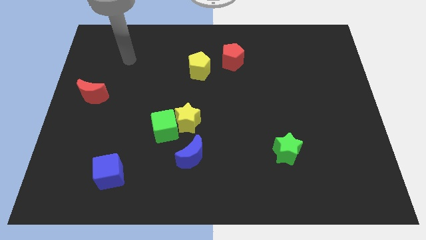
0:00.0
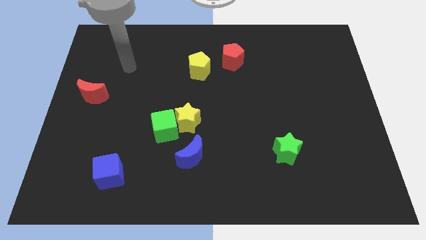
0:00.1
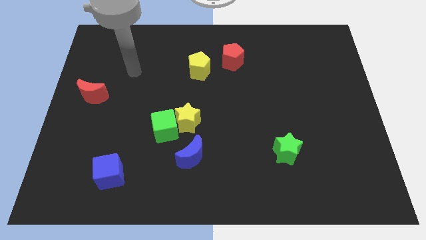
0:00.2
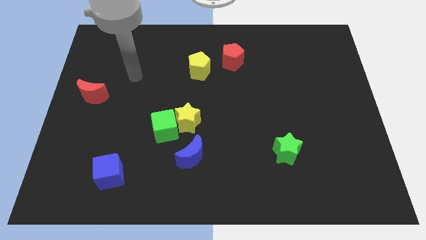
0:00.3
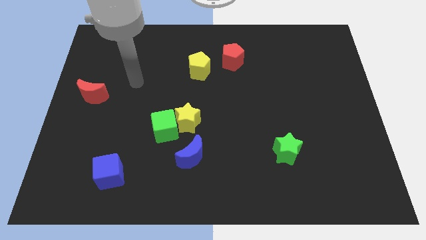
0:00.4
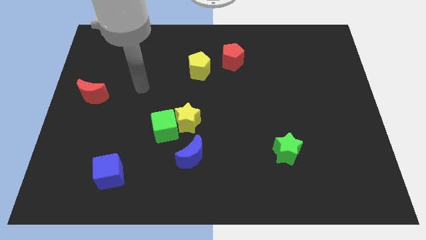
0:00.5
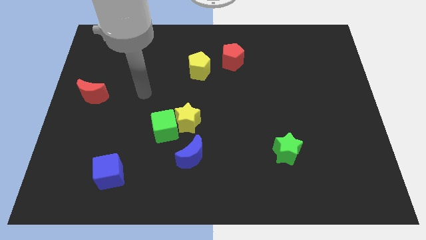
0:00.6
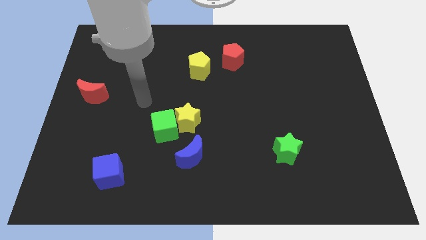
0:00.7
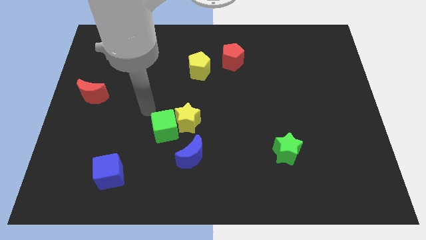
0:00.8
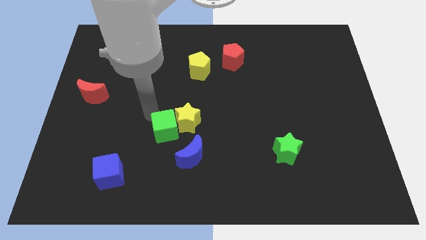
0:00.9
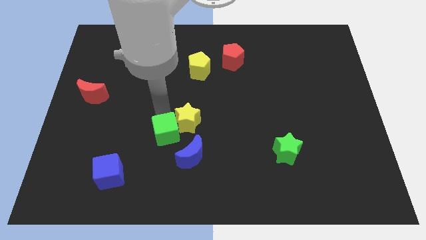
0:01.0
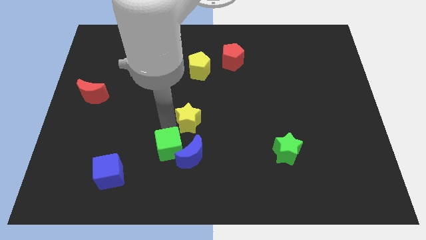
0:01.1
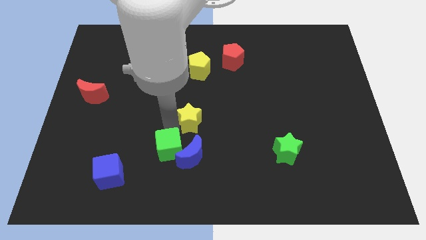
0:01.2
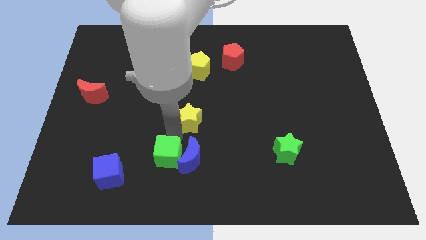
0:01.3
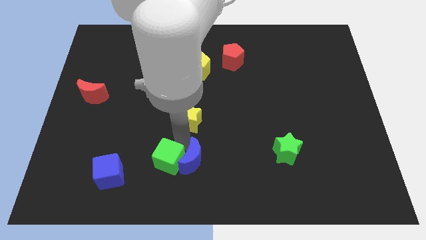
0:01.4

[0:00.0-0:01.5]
pull the yellow star apart from the green cube and blue moon

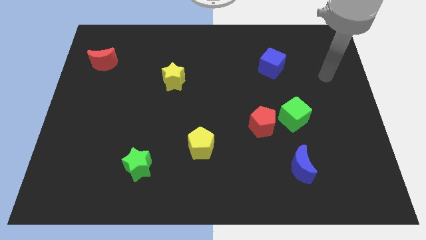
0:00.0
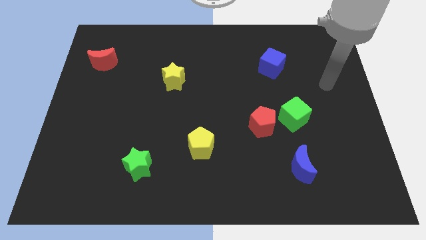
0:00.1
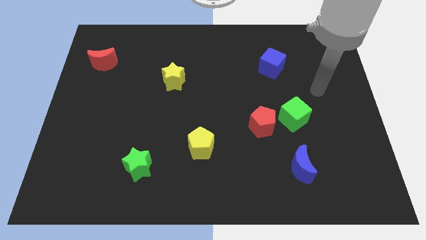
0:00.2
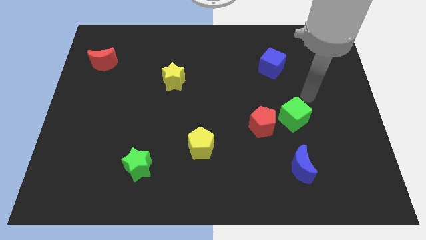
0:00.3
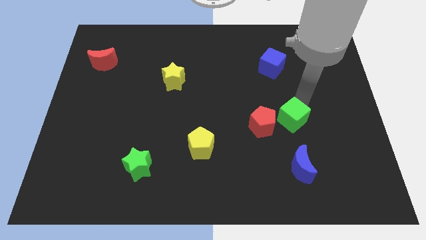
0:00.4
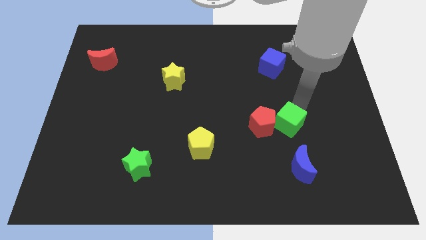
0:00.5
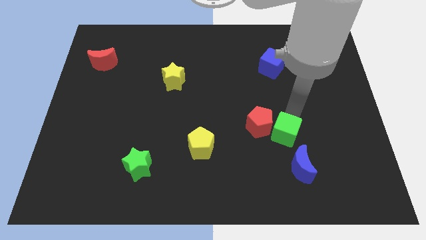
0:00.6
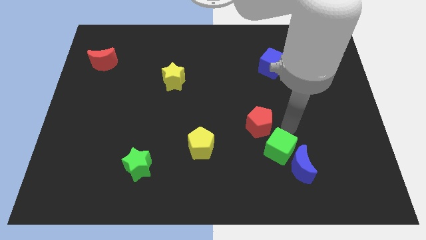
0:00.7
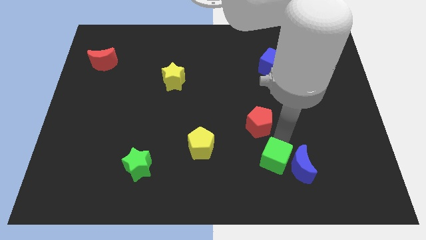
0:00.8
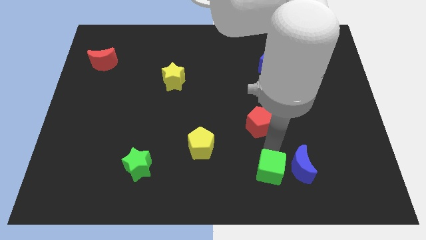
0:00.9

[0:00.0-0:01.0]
separate the red pentagon from the green cube

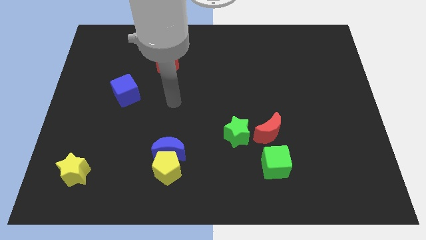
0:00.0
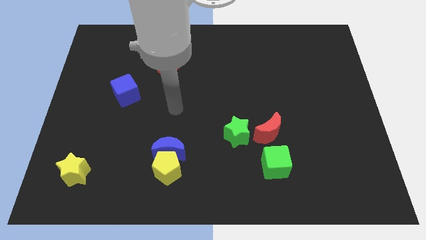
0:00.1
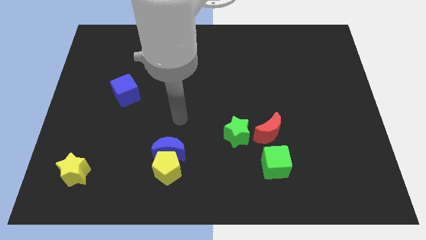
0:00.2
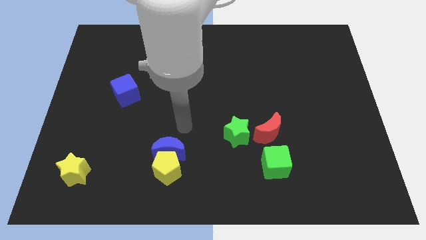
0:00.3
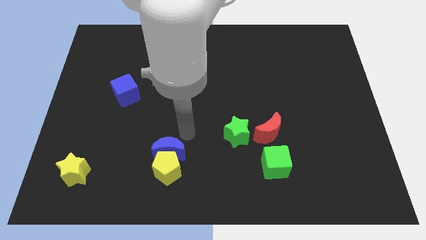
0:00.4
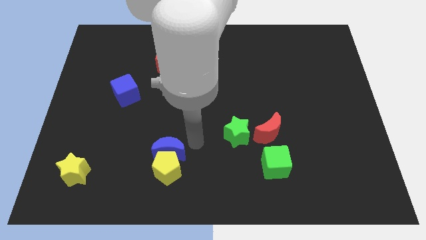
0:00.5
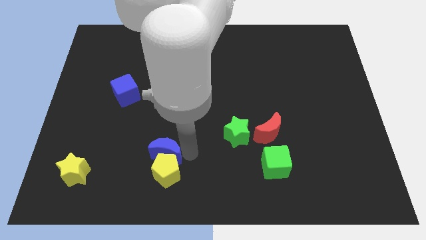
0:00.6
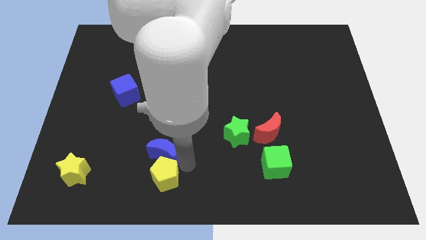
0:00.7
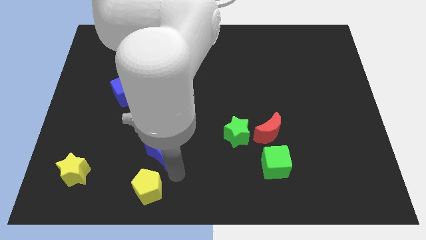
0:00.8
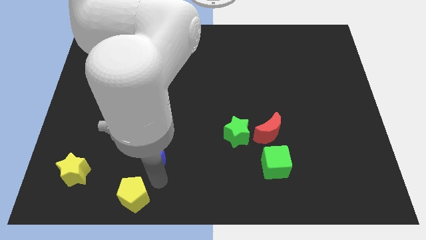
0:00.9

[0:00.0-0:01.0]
move the blue moon away from the yellow pentagon

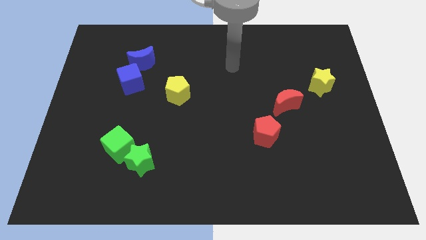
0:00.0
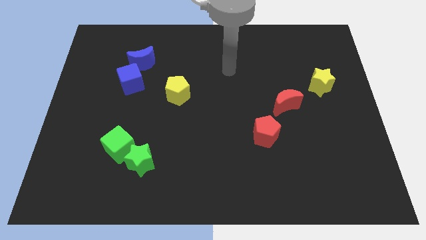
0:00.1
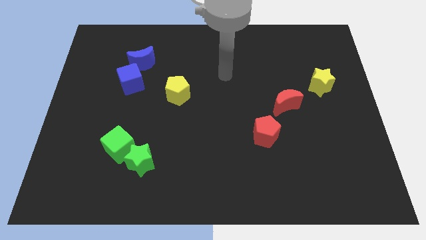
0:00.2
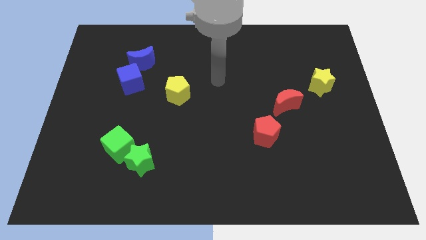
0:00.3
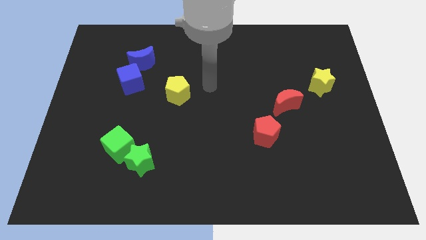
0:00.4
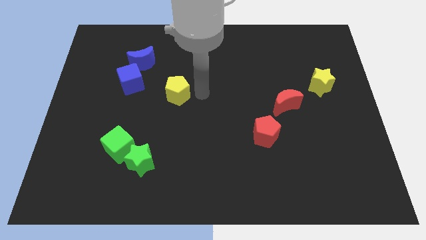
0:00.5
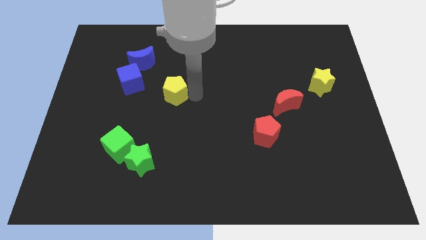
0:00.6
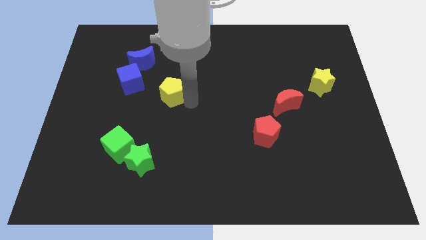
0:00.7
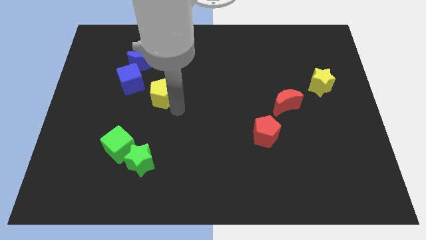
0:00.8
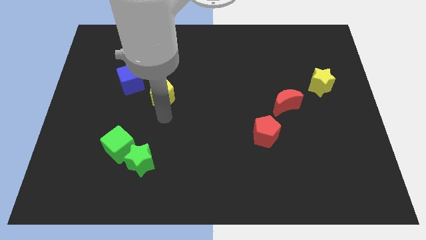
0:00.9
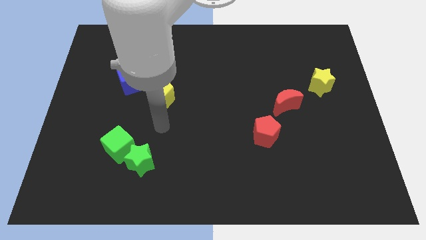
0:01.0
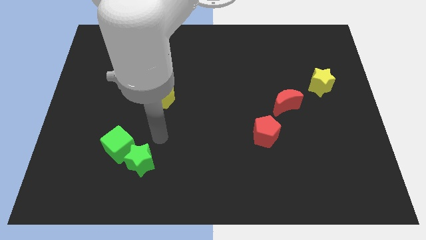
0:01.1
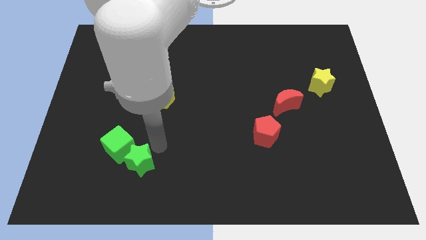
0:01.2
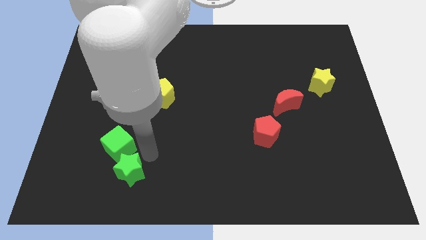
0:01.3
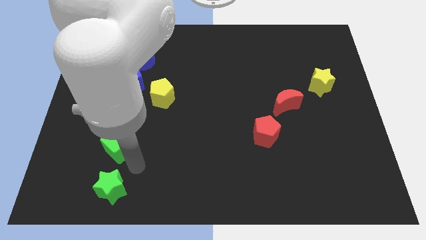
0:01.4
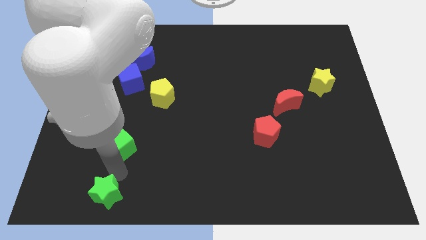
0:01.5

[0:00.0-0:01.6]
pull the green cube apart from the green star

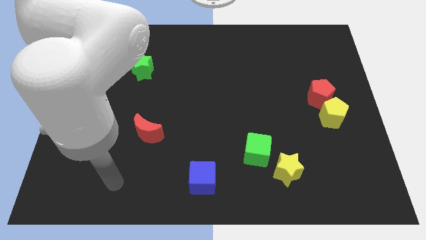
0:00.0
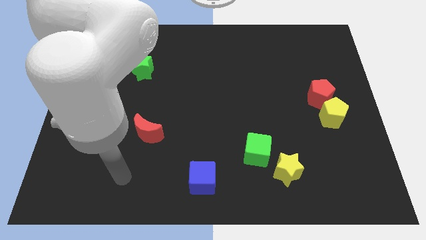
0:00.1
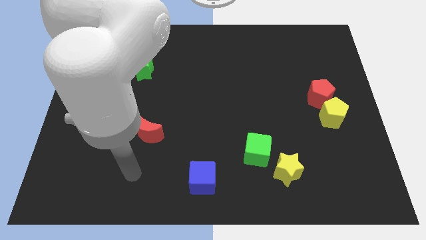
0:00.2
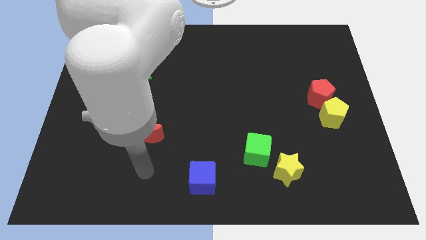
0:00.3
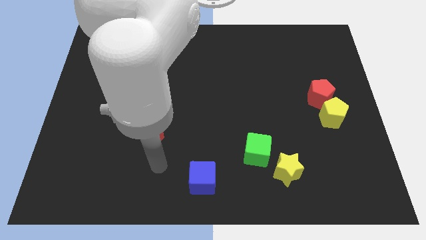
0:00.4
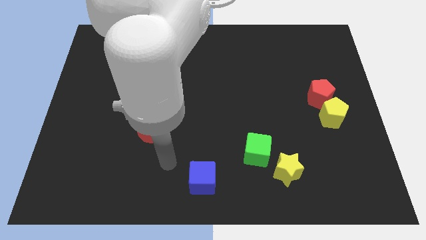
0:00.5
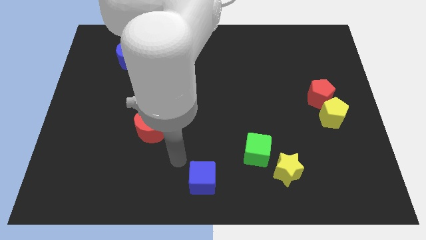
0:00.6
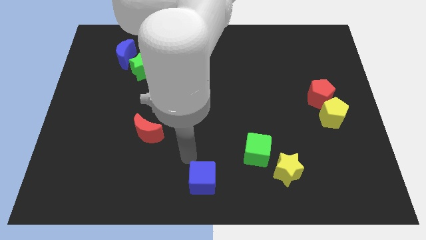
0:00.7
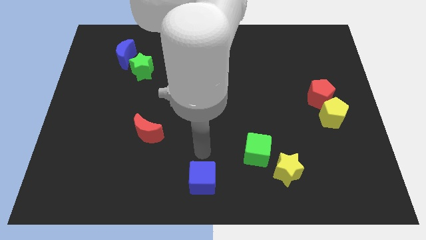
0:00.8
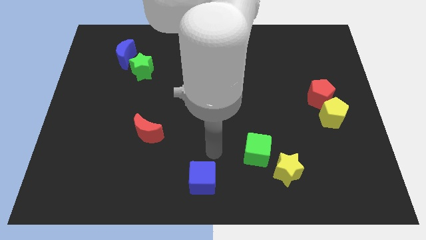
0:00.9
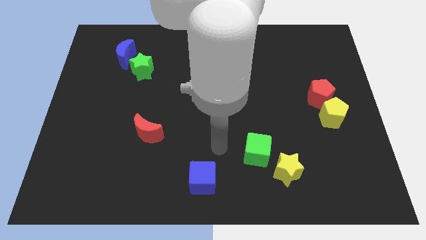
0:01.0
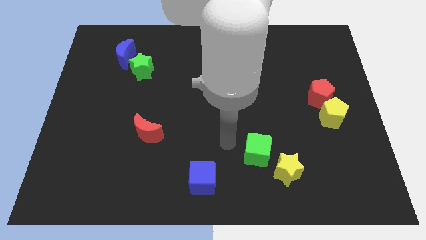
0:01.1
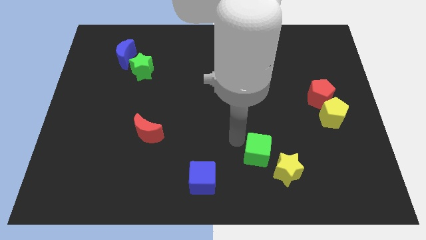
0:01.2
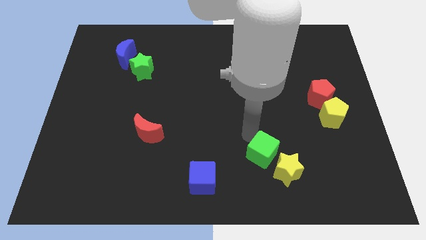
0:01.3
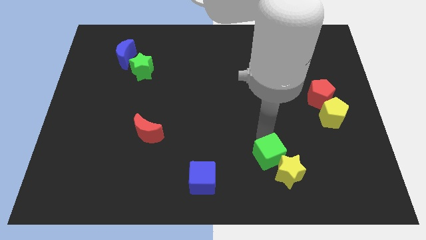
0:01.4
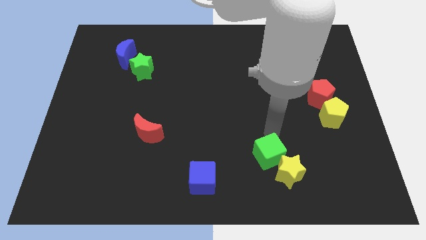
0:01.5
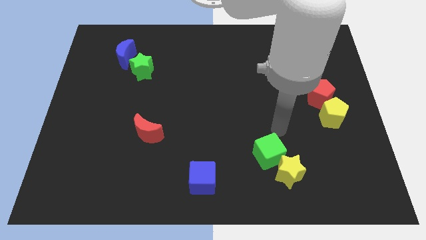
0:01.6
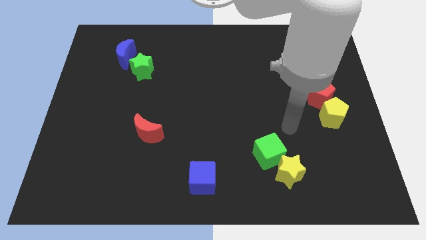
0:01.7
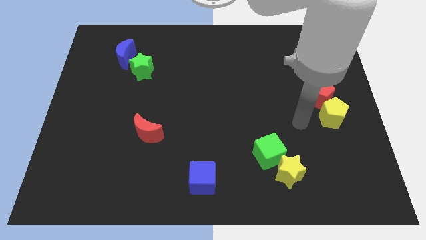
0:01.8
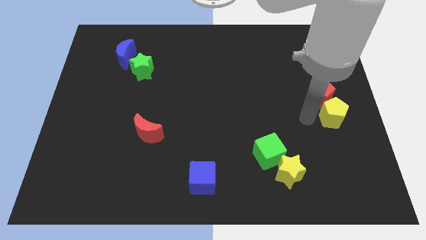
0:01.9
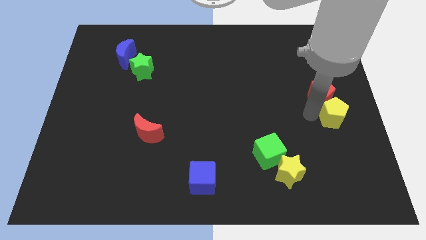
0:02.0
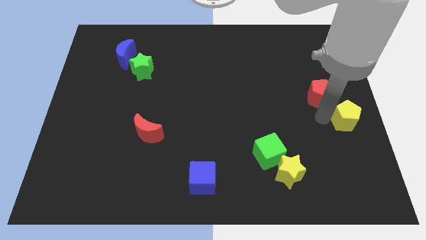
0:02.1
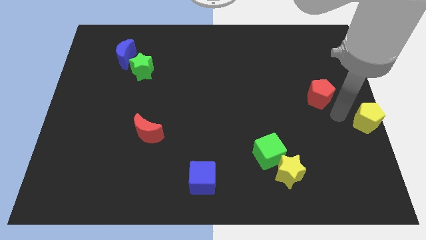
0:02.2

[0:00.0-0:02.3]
separate the red pentagon from the yellow pentagon

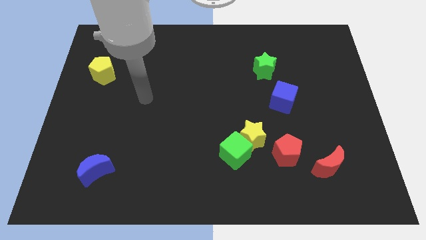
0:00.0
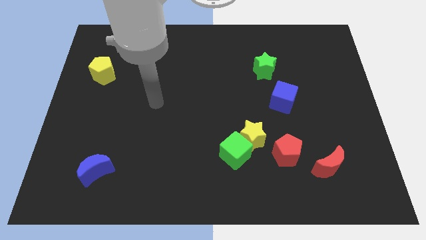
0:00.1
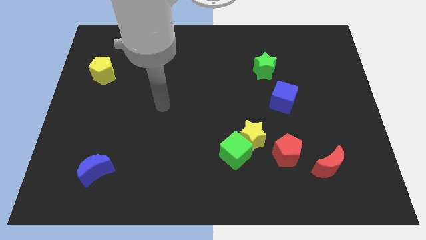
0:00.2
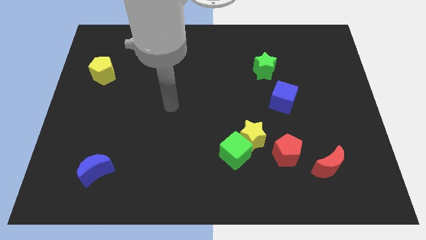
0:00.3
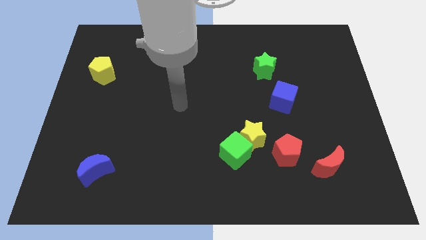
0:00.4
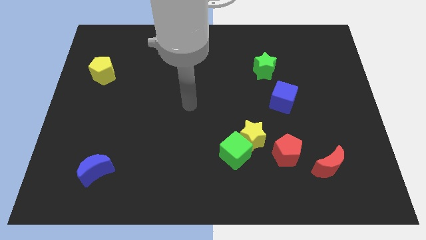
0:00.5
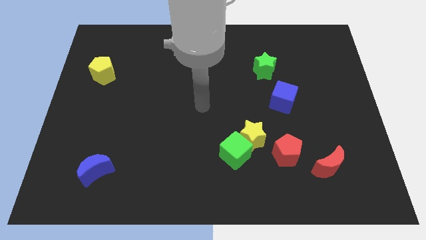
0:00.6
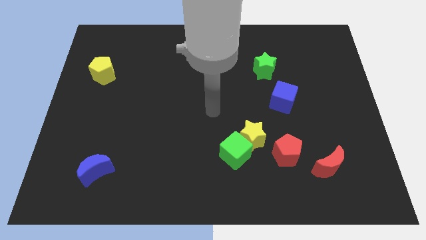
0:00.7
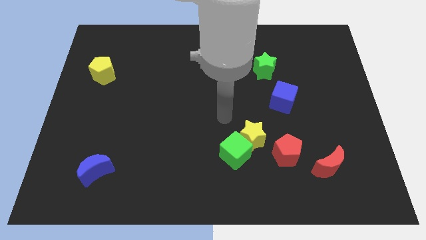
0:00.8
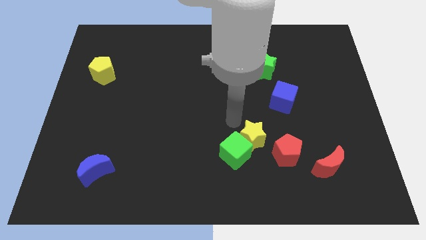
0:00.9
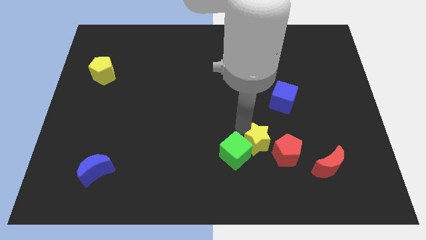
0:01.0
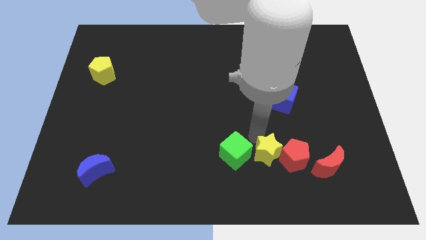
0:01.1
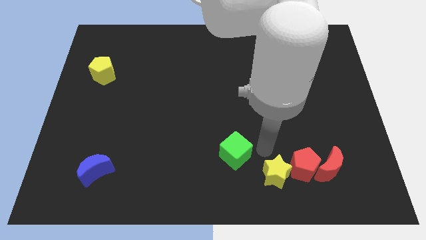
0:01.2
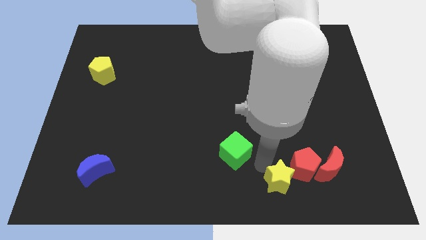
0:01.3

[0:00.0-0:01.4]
pull the green cube apart from the yellow star

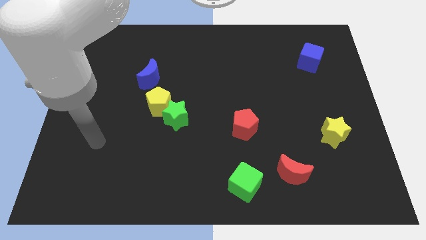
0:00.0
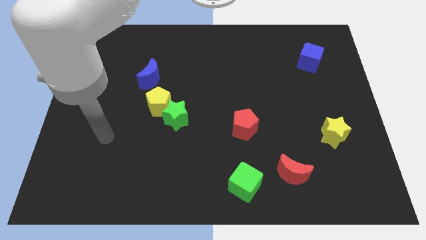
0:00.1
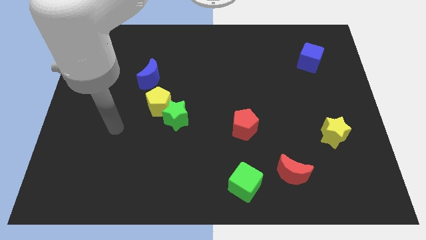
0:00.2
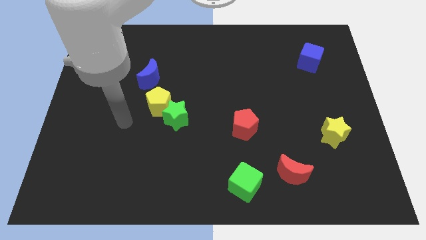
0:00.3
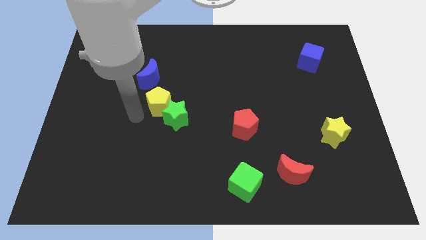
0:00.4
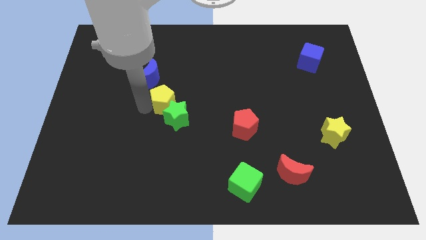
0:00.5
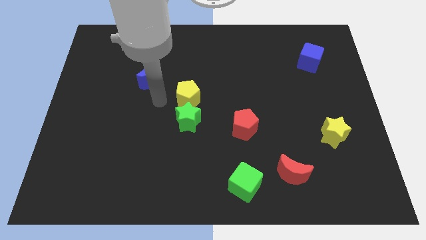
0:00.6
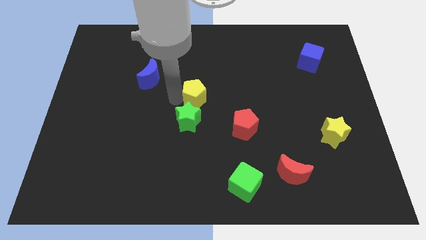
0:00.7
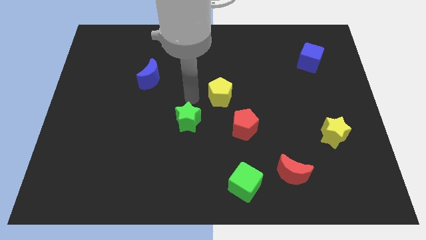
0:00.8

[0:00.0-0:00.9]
separate the green star from the yellow pentagon
